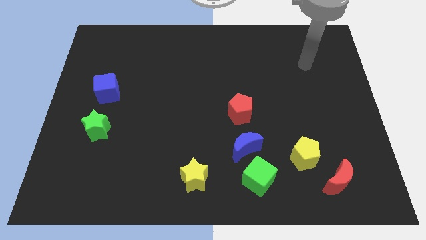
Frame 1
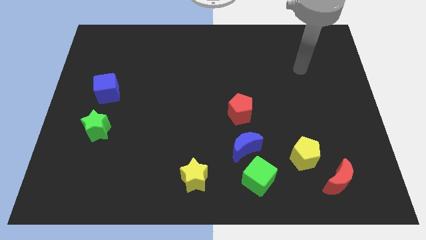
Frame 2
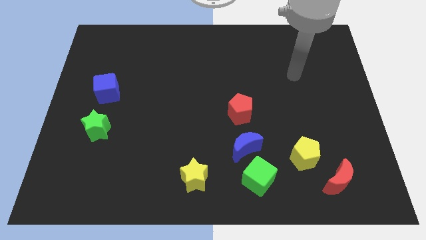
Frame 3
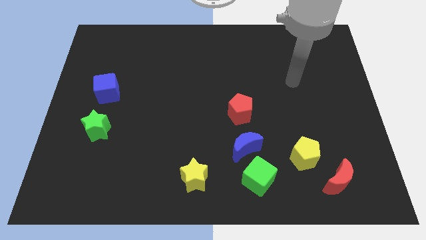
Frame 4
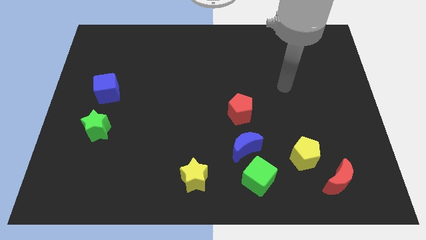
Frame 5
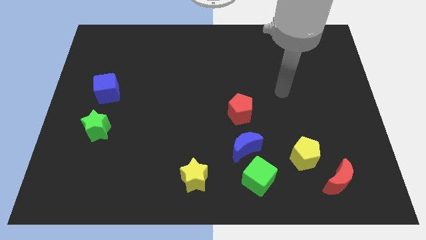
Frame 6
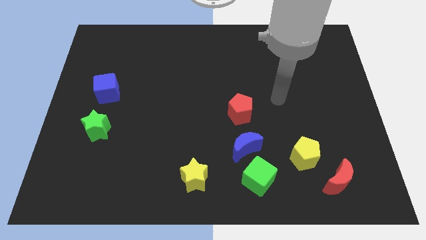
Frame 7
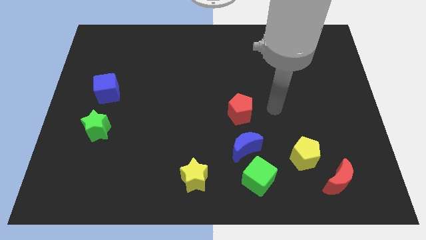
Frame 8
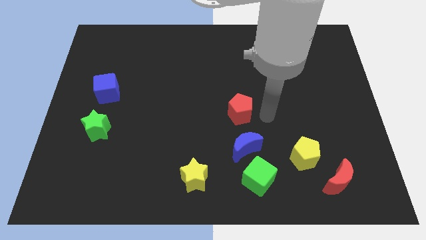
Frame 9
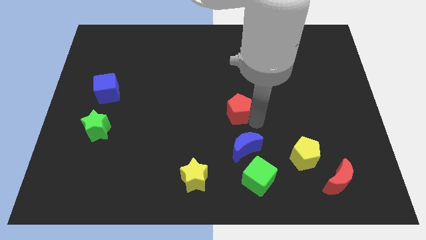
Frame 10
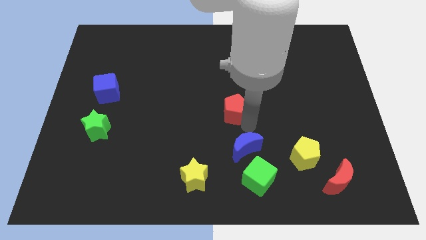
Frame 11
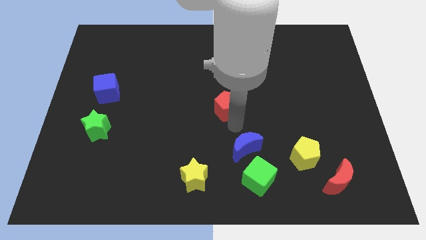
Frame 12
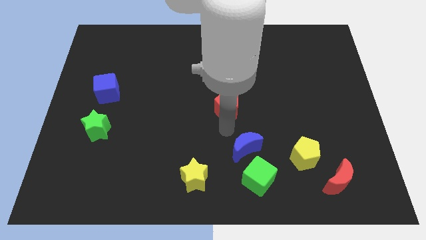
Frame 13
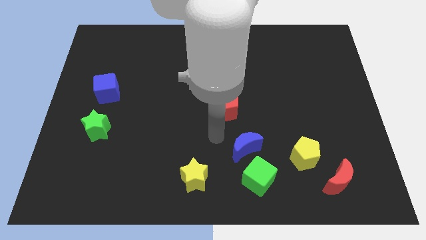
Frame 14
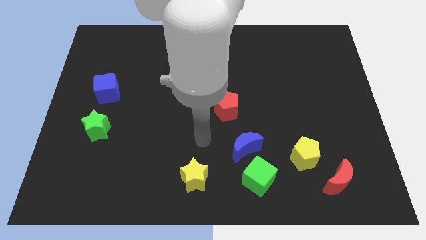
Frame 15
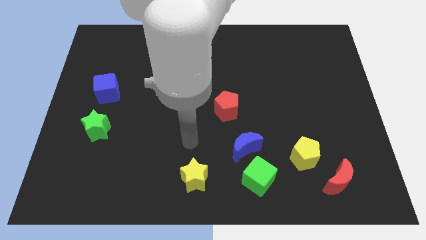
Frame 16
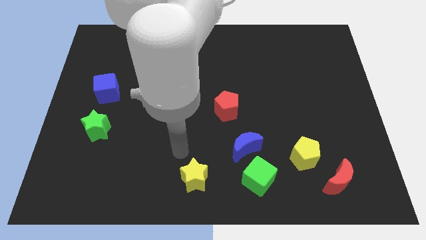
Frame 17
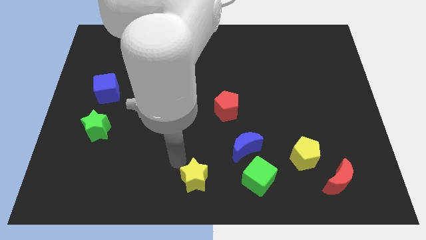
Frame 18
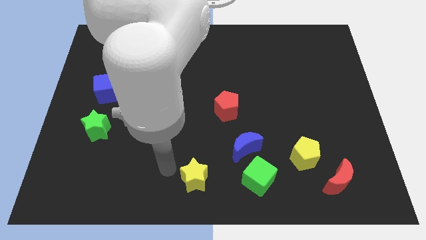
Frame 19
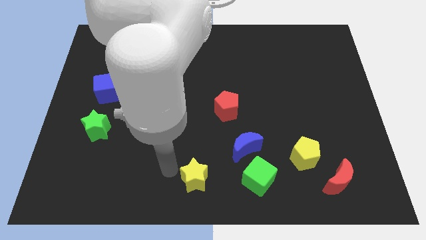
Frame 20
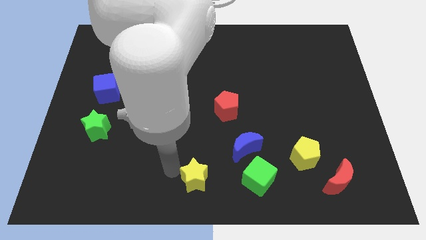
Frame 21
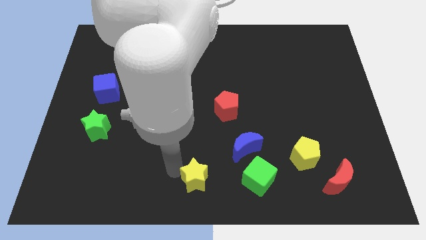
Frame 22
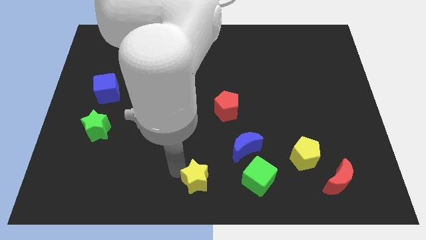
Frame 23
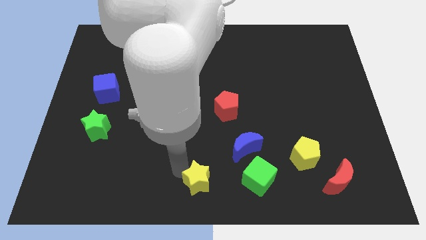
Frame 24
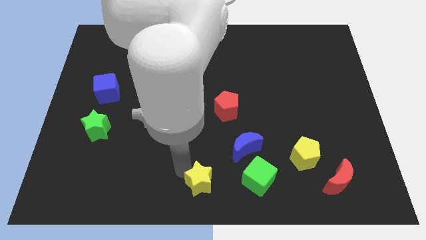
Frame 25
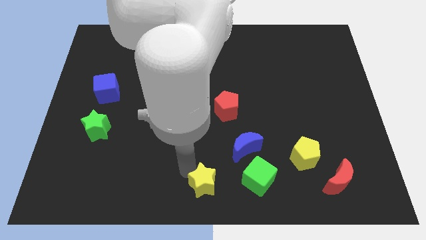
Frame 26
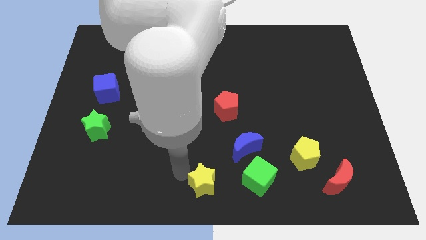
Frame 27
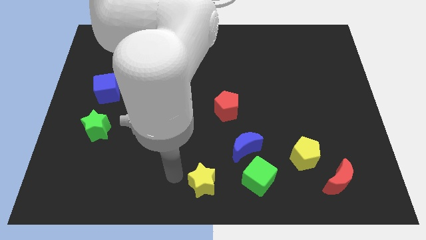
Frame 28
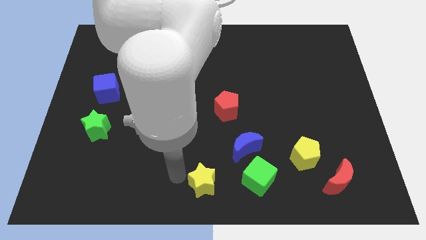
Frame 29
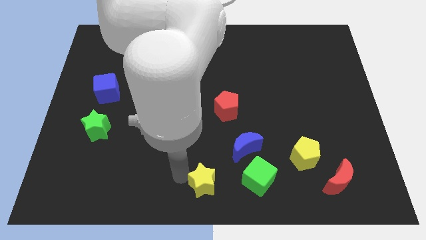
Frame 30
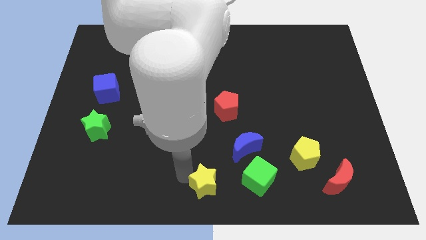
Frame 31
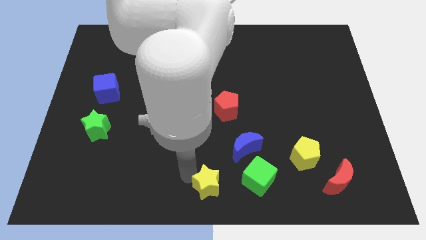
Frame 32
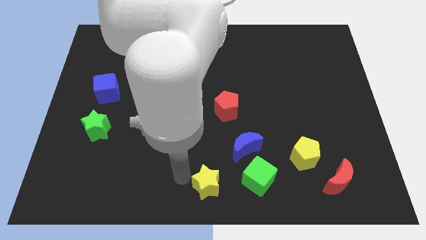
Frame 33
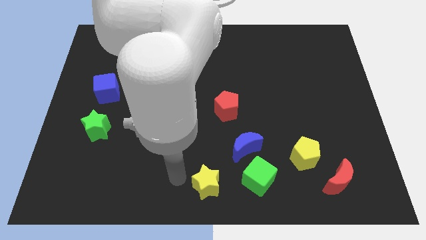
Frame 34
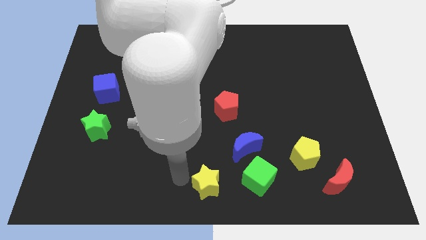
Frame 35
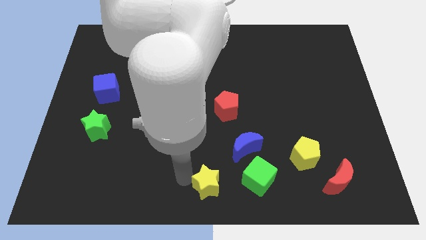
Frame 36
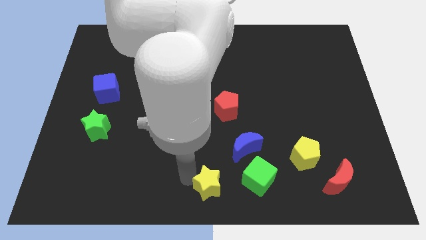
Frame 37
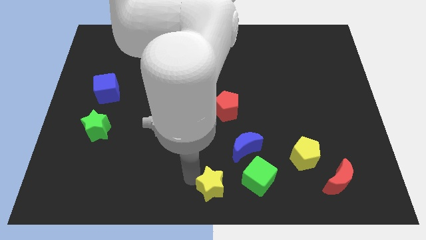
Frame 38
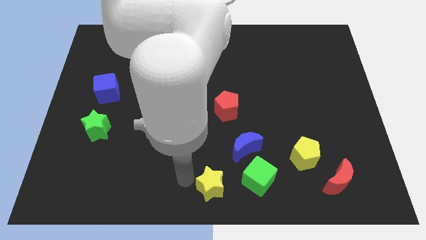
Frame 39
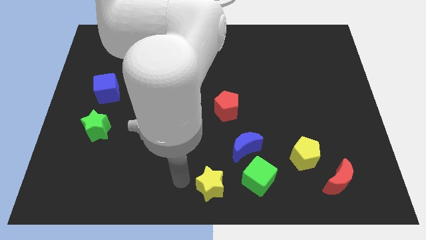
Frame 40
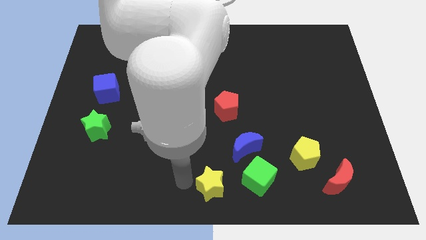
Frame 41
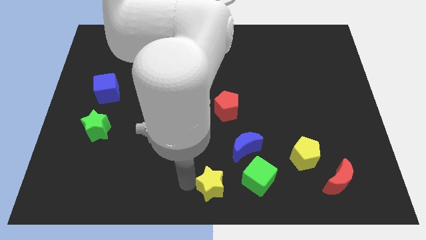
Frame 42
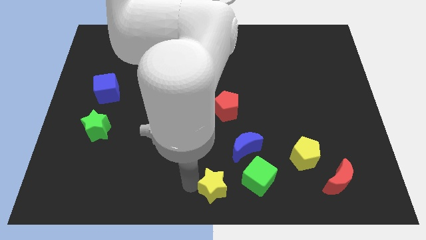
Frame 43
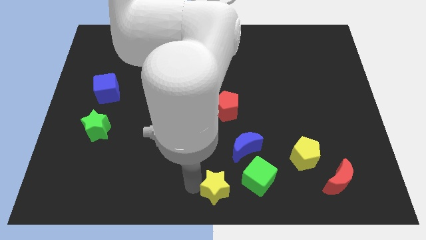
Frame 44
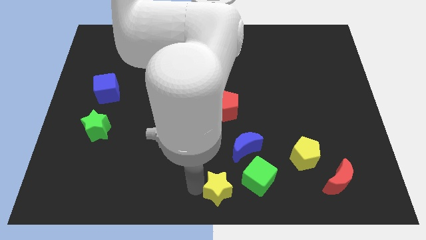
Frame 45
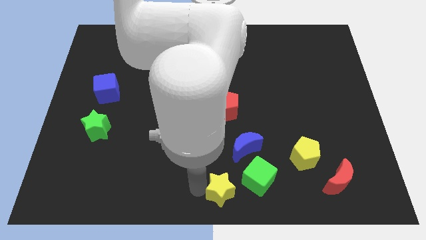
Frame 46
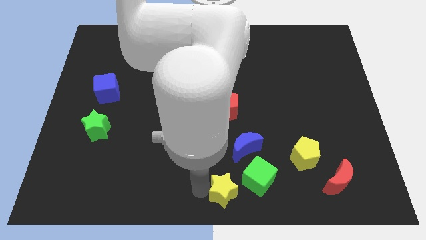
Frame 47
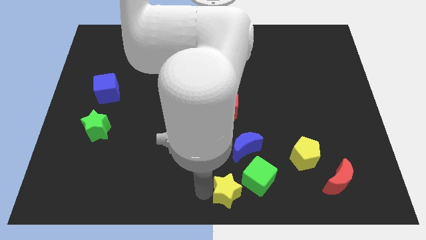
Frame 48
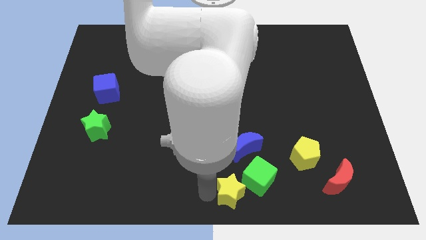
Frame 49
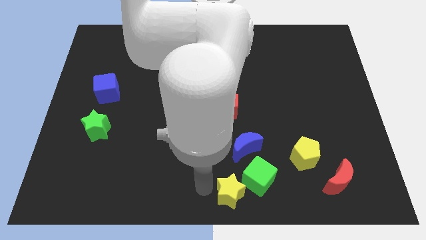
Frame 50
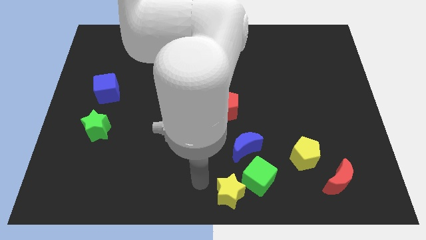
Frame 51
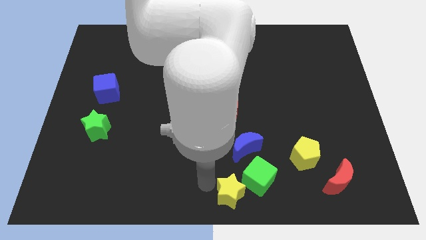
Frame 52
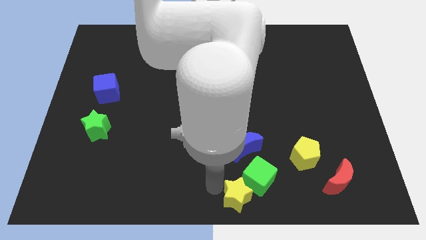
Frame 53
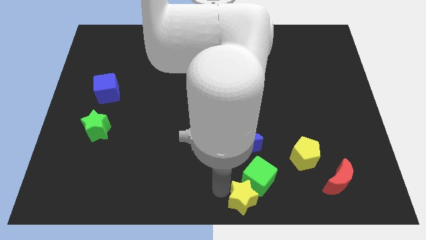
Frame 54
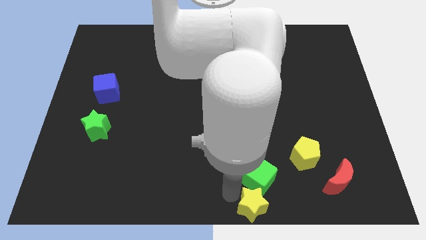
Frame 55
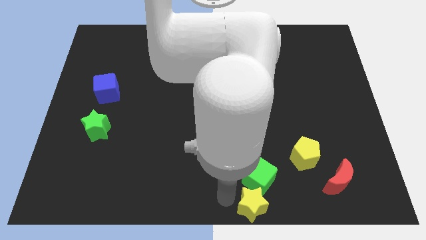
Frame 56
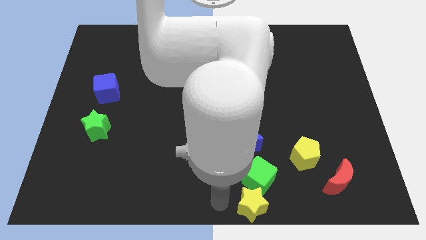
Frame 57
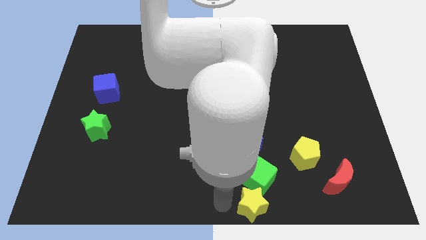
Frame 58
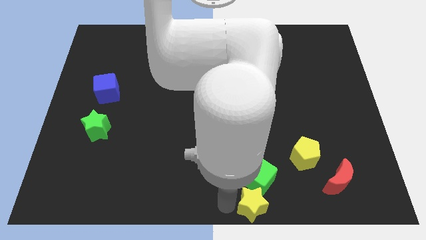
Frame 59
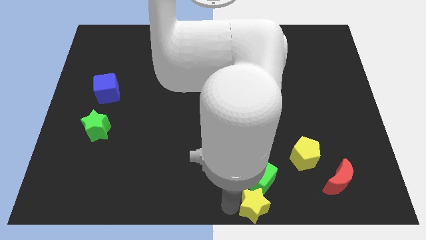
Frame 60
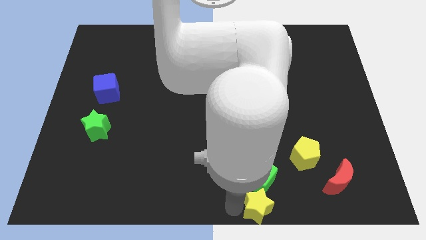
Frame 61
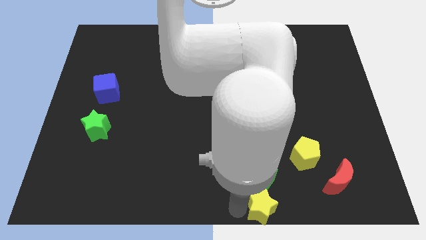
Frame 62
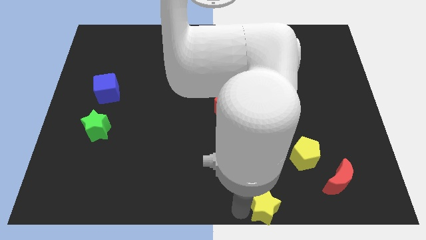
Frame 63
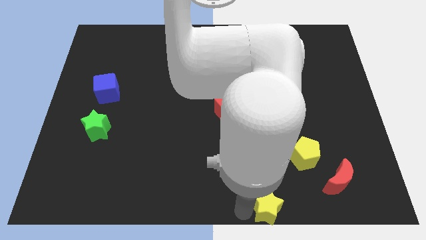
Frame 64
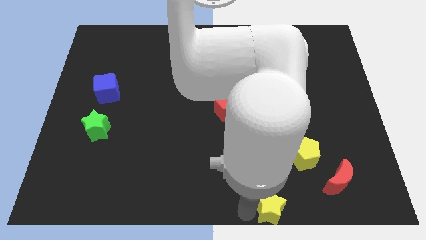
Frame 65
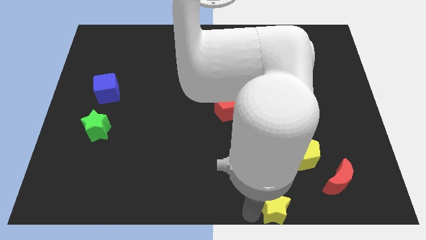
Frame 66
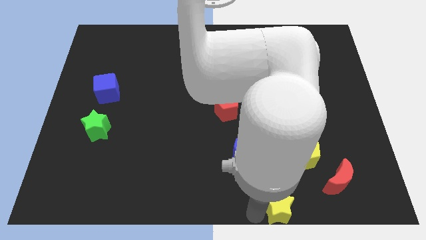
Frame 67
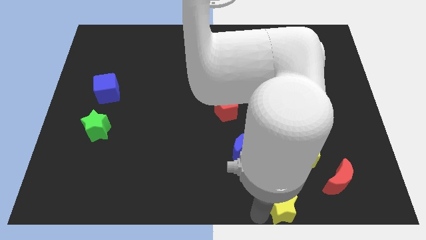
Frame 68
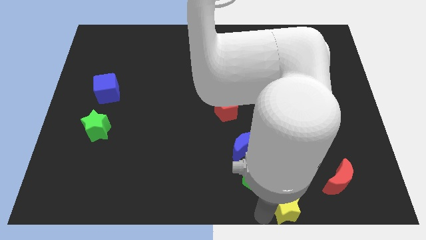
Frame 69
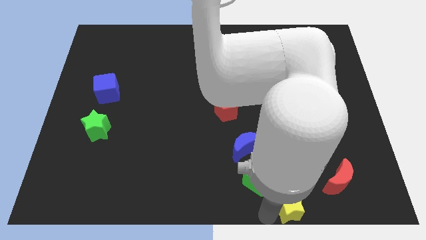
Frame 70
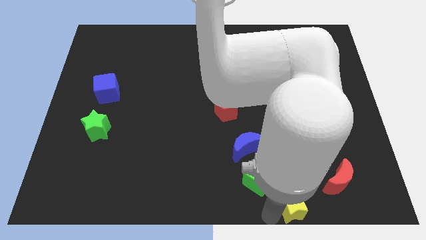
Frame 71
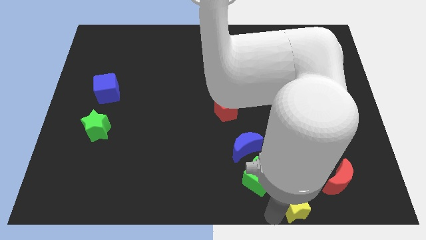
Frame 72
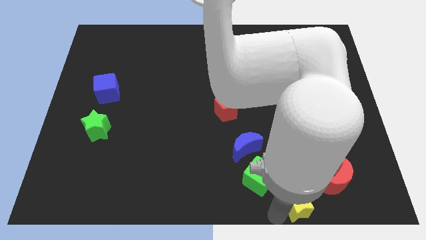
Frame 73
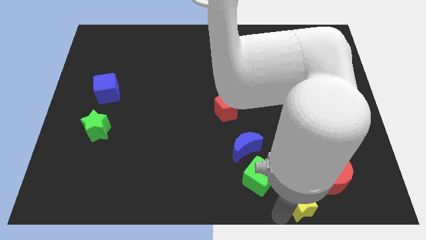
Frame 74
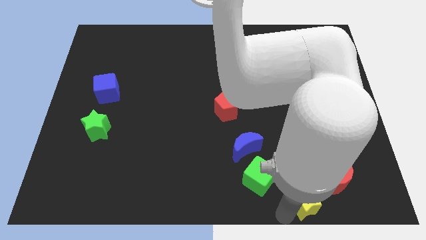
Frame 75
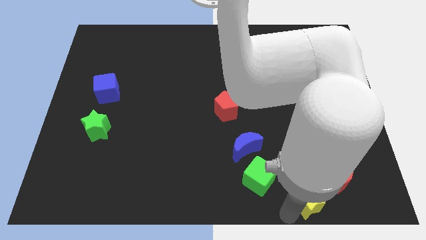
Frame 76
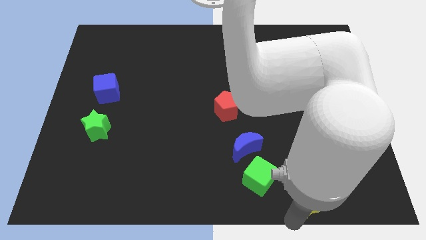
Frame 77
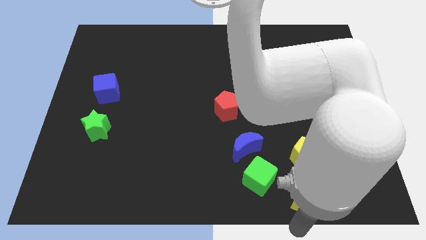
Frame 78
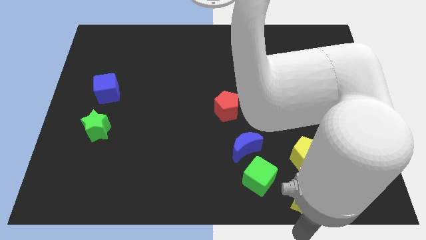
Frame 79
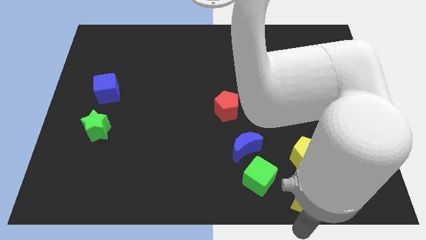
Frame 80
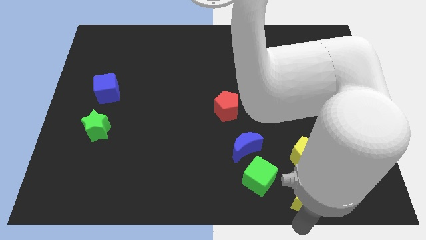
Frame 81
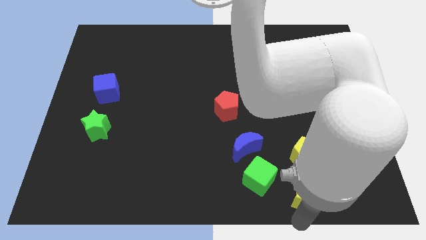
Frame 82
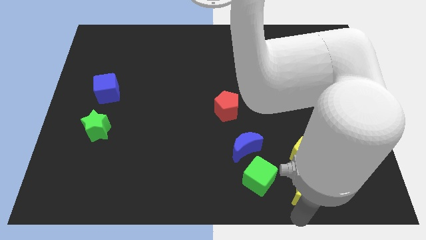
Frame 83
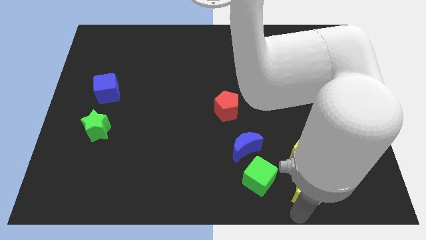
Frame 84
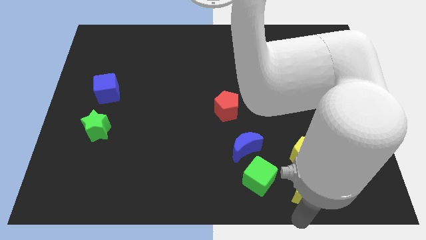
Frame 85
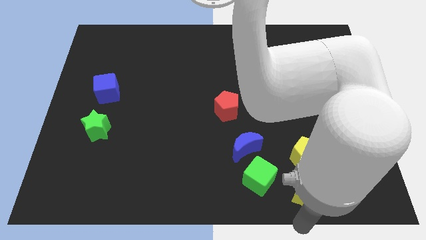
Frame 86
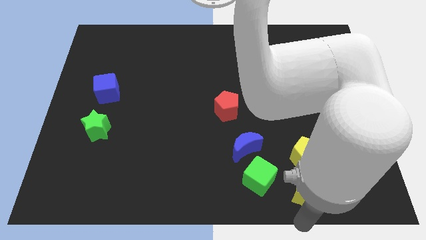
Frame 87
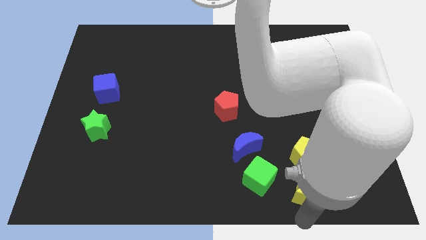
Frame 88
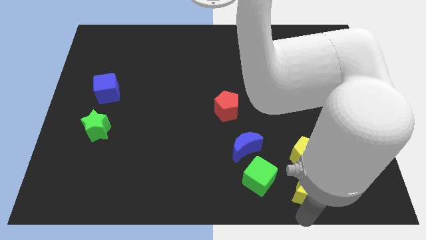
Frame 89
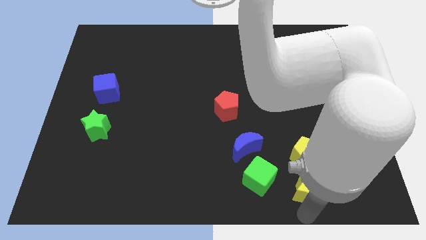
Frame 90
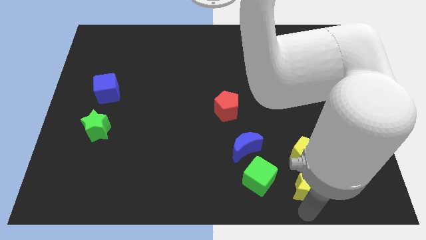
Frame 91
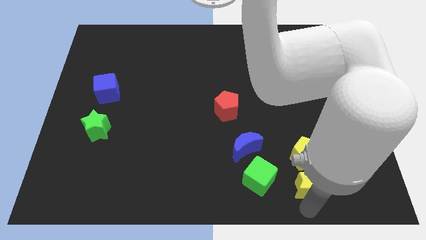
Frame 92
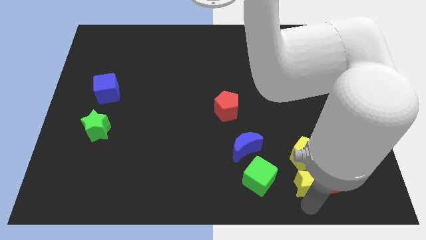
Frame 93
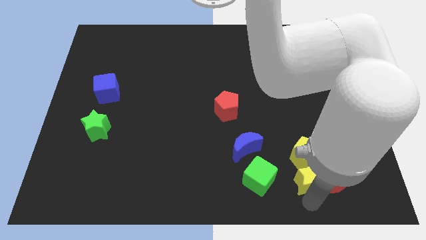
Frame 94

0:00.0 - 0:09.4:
slide the yellow star towards the yellow pentagon
